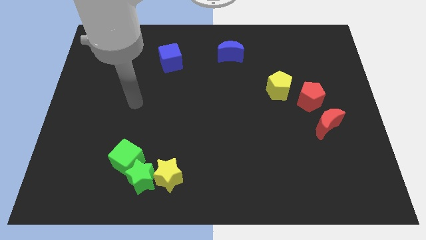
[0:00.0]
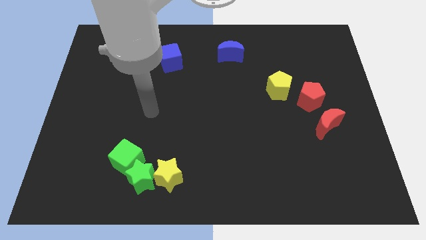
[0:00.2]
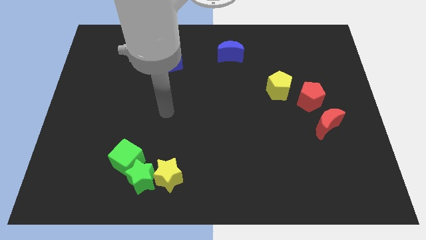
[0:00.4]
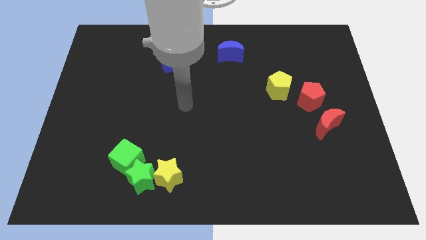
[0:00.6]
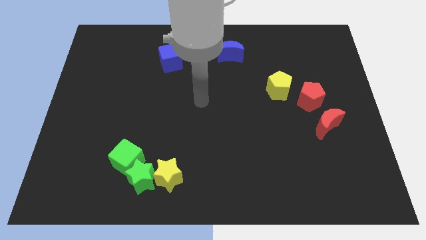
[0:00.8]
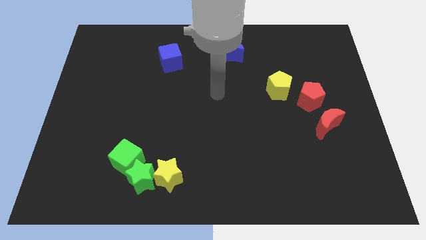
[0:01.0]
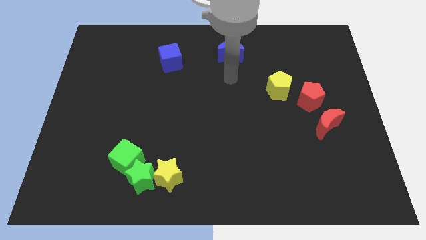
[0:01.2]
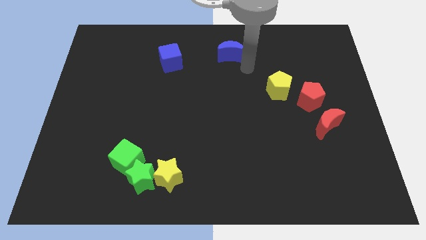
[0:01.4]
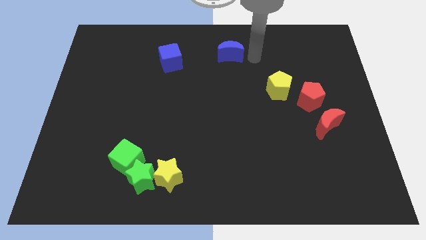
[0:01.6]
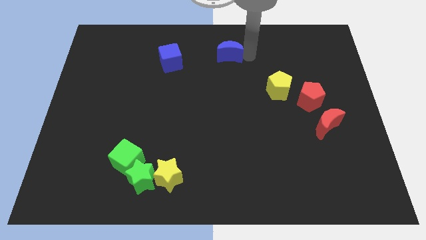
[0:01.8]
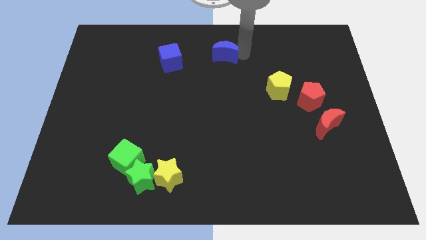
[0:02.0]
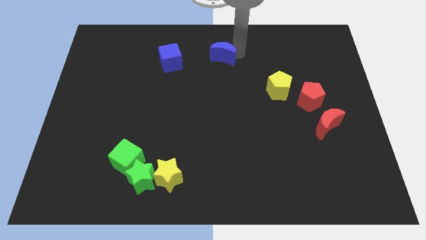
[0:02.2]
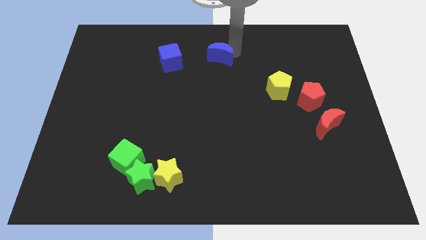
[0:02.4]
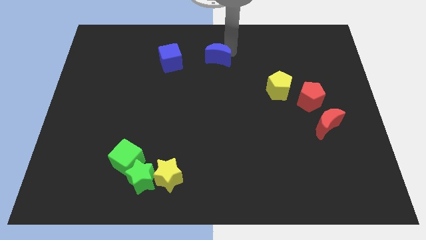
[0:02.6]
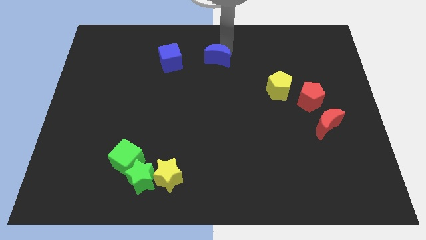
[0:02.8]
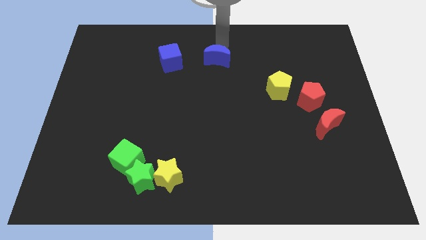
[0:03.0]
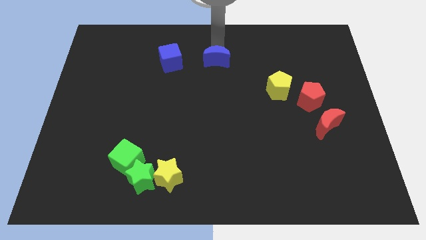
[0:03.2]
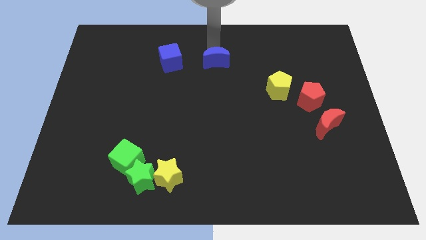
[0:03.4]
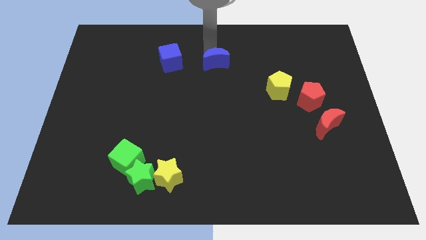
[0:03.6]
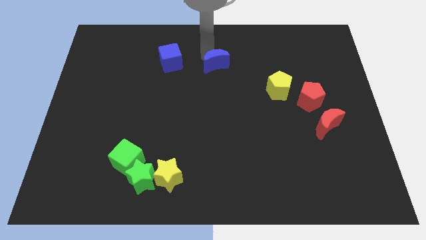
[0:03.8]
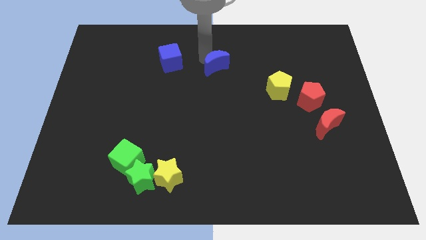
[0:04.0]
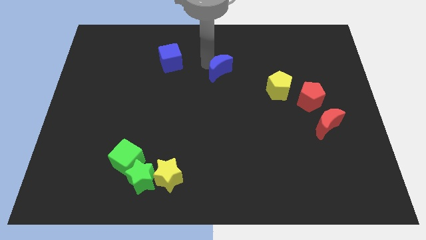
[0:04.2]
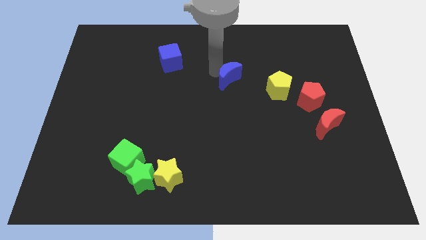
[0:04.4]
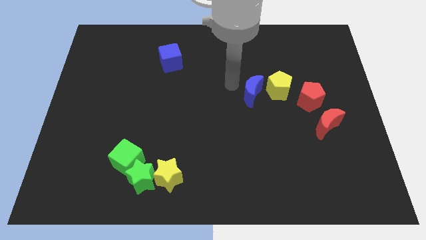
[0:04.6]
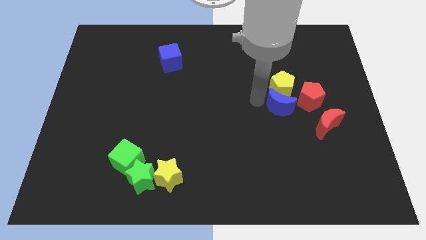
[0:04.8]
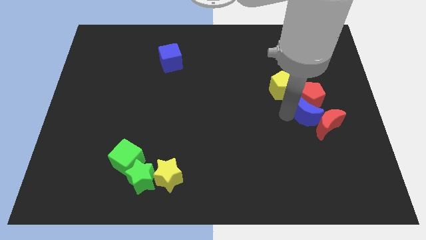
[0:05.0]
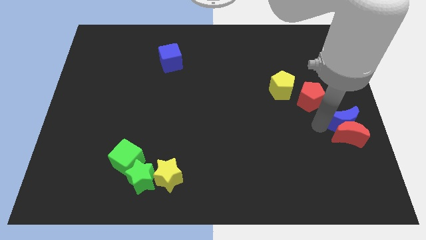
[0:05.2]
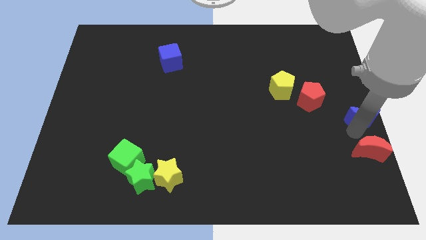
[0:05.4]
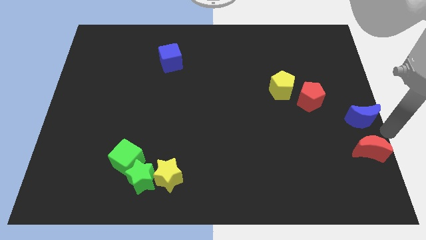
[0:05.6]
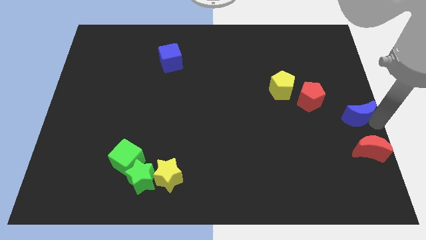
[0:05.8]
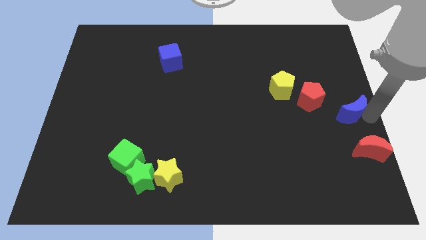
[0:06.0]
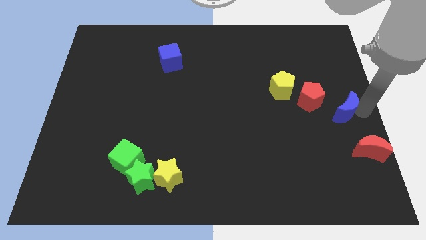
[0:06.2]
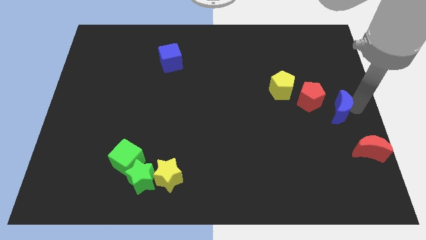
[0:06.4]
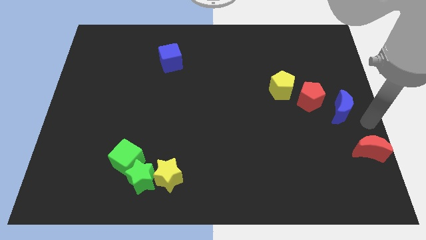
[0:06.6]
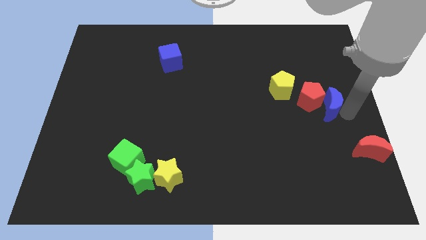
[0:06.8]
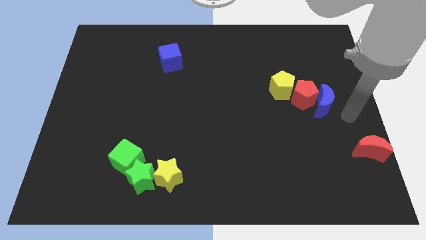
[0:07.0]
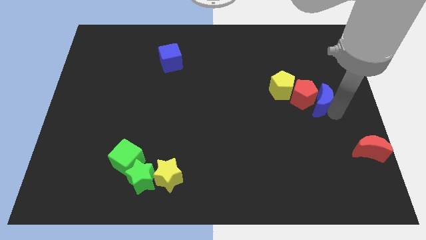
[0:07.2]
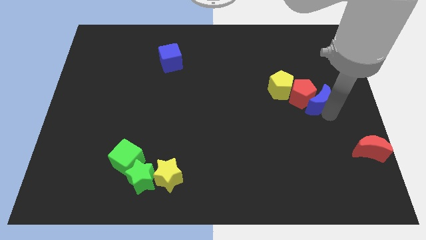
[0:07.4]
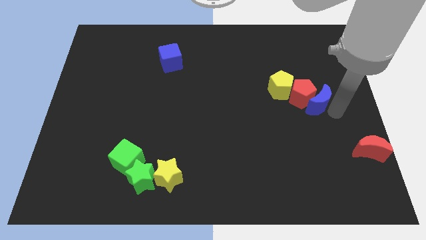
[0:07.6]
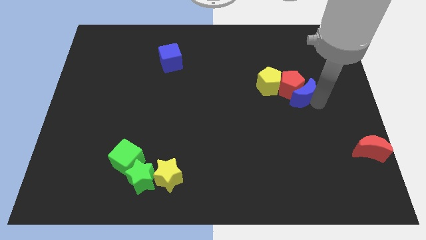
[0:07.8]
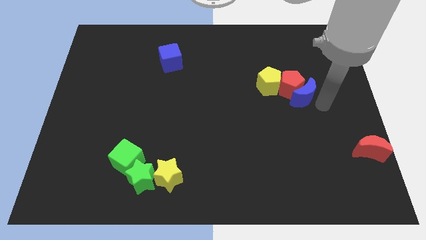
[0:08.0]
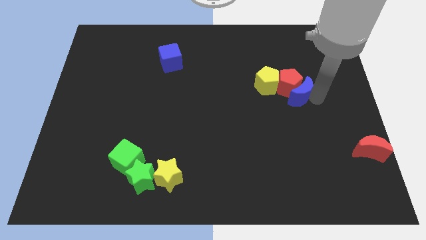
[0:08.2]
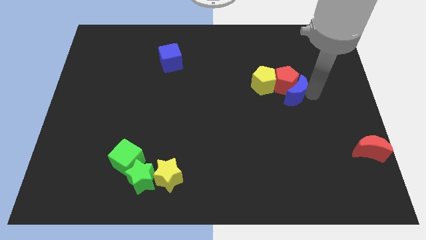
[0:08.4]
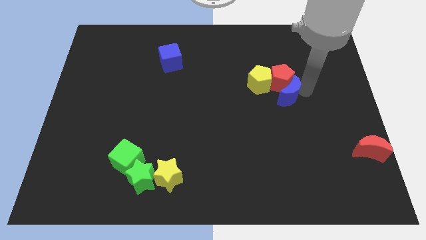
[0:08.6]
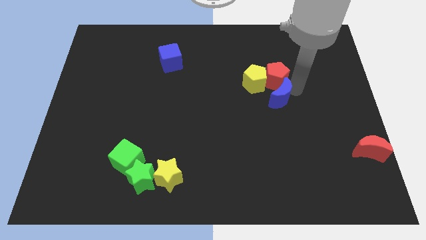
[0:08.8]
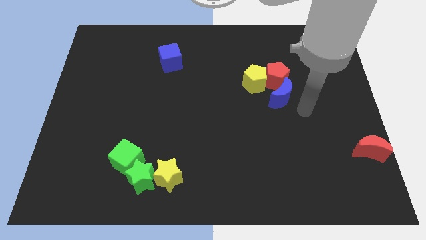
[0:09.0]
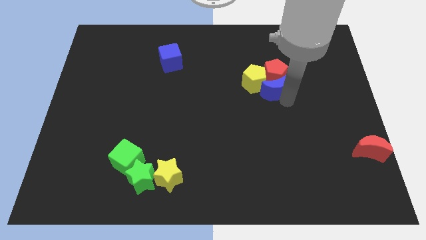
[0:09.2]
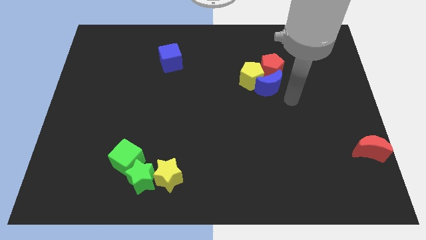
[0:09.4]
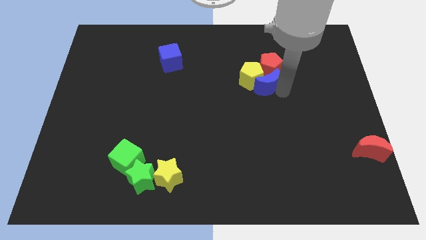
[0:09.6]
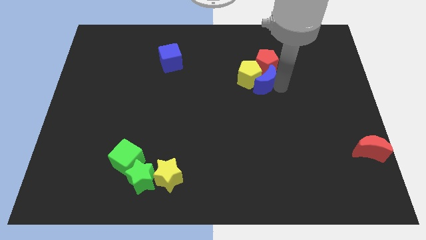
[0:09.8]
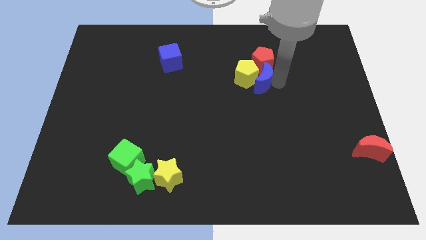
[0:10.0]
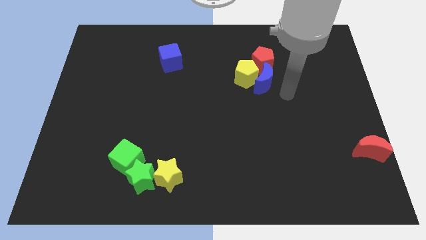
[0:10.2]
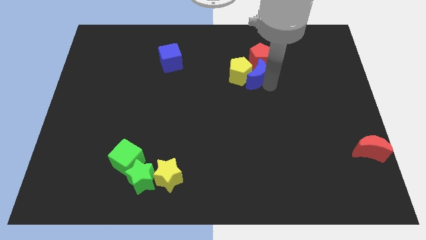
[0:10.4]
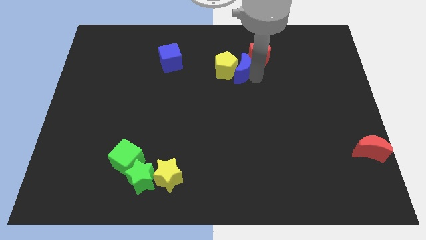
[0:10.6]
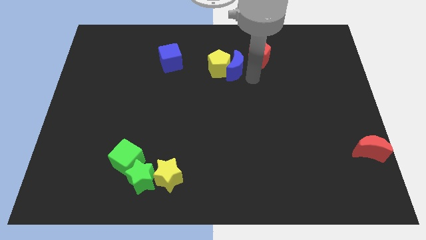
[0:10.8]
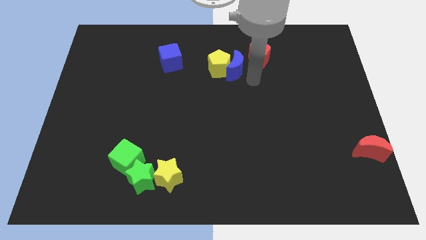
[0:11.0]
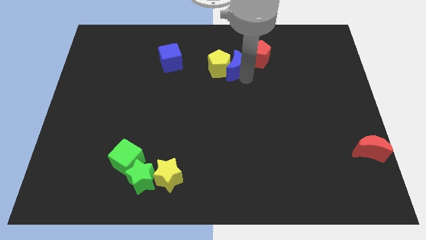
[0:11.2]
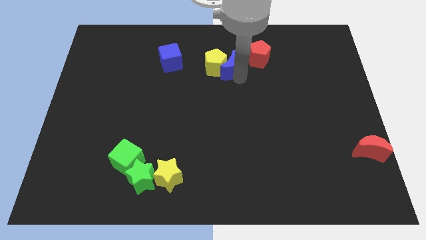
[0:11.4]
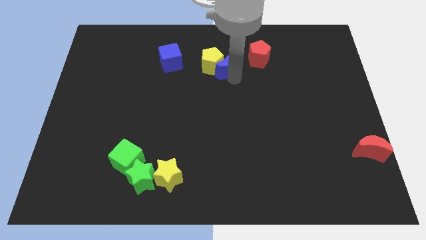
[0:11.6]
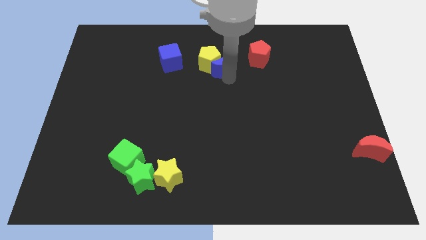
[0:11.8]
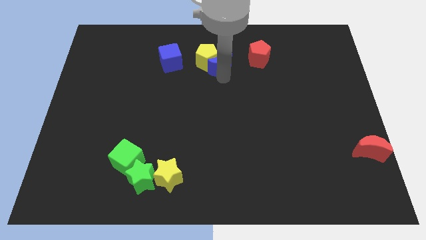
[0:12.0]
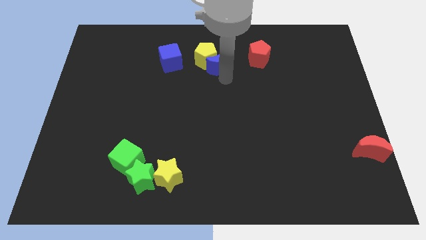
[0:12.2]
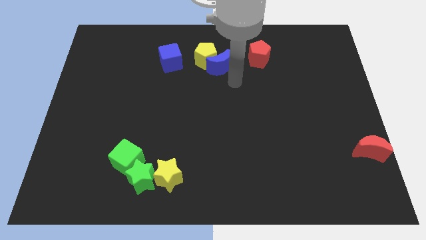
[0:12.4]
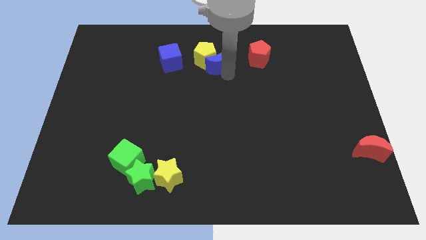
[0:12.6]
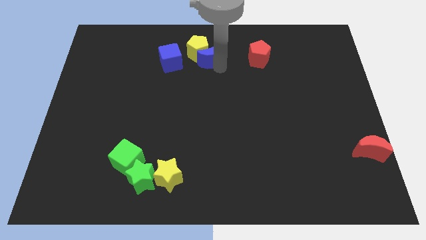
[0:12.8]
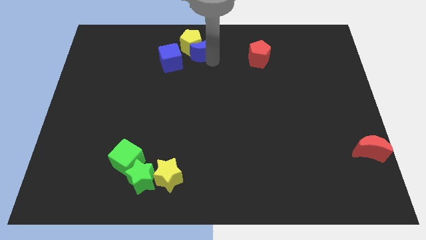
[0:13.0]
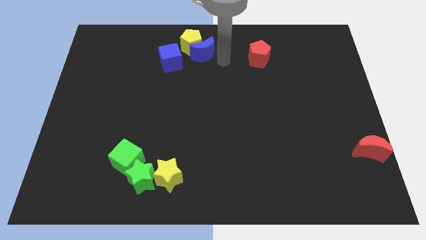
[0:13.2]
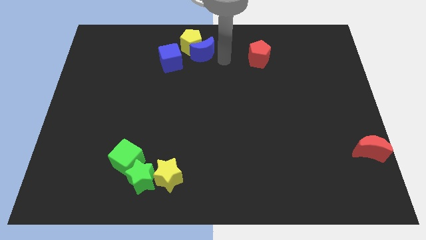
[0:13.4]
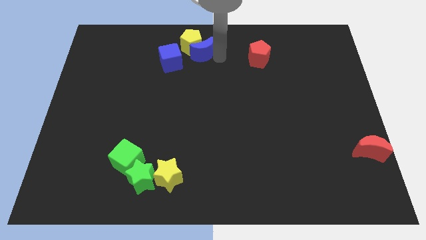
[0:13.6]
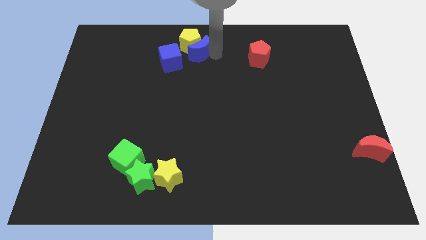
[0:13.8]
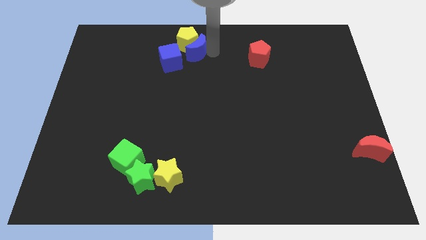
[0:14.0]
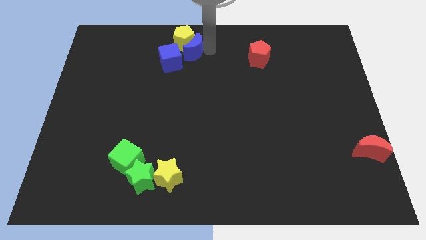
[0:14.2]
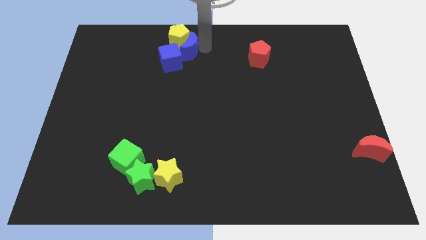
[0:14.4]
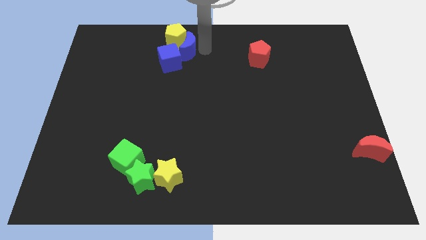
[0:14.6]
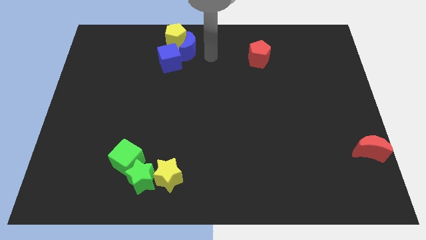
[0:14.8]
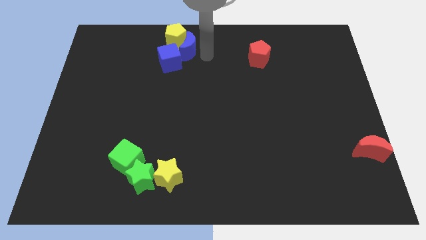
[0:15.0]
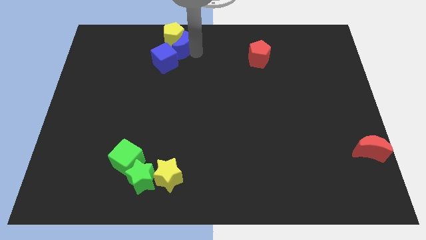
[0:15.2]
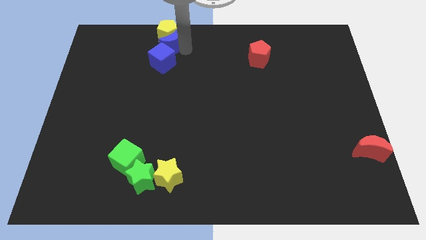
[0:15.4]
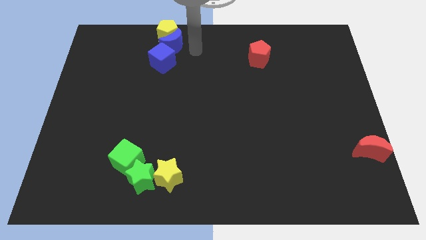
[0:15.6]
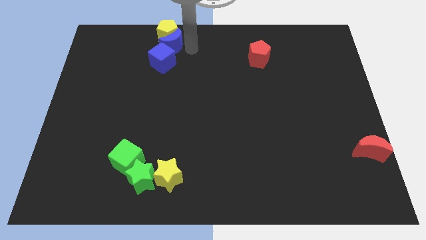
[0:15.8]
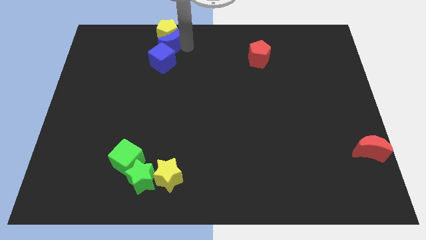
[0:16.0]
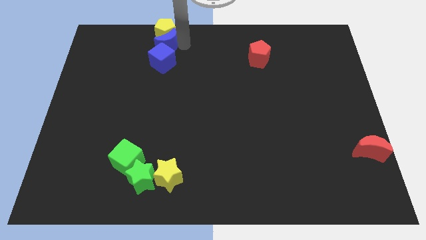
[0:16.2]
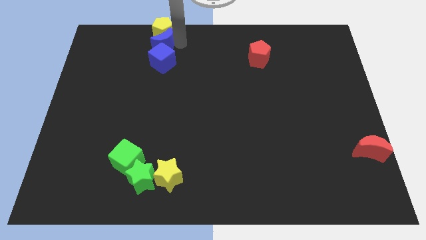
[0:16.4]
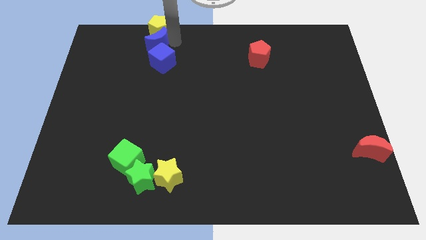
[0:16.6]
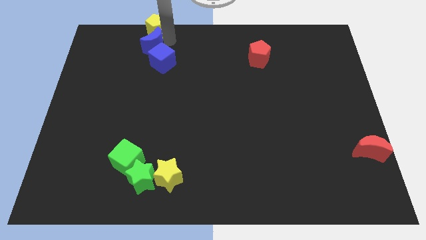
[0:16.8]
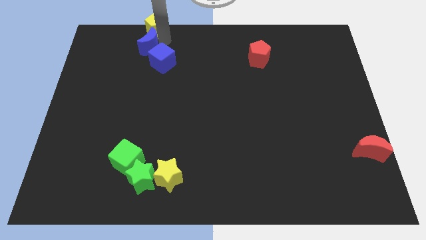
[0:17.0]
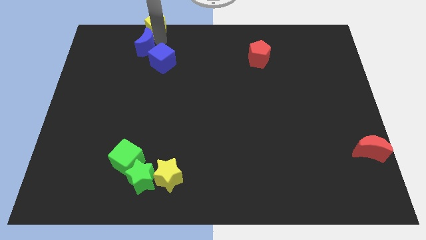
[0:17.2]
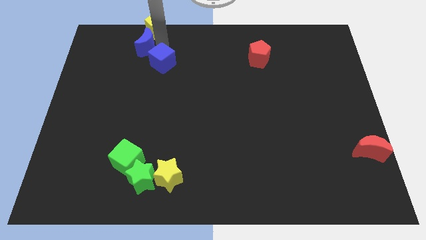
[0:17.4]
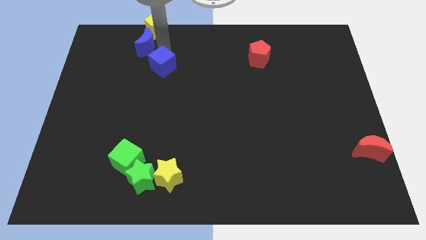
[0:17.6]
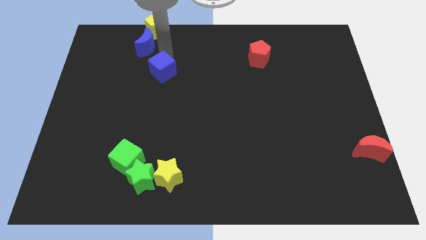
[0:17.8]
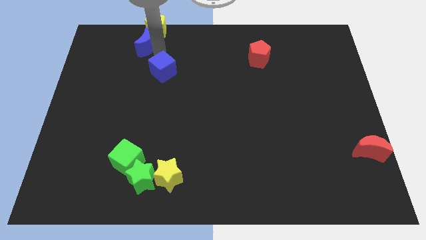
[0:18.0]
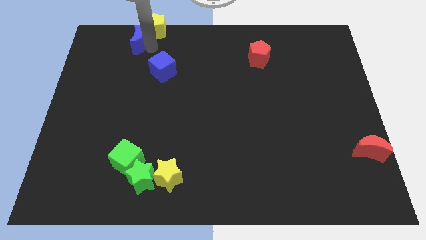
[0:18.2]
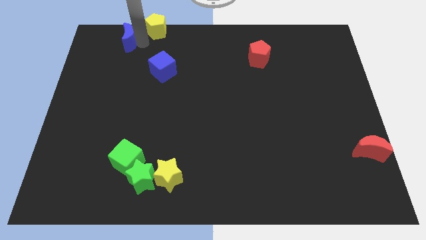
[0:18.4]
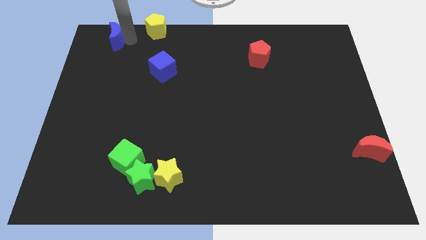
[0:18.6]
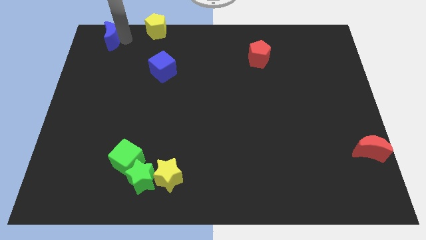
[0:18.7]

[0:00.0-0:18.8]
slide the blue moon to the top left of the board
